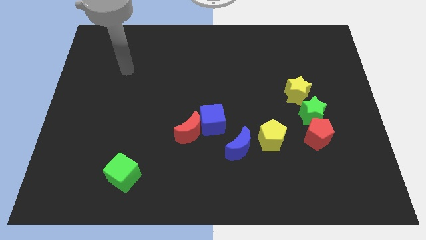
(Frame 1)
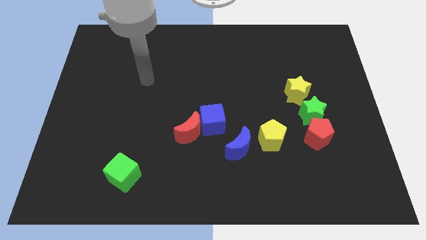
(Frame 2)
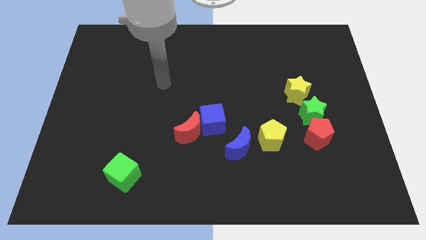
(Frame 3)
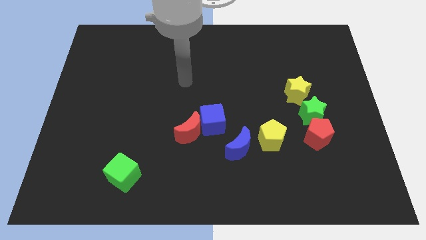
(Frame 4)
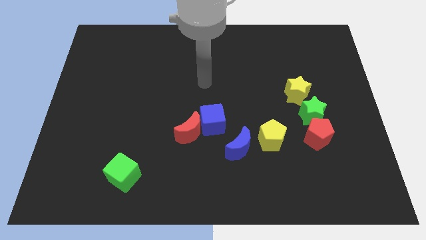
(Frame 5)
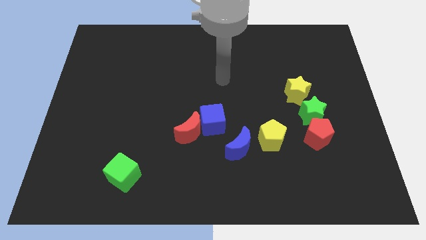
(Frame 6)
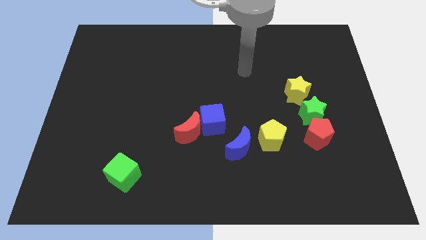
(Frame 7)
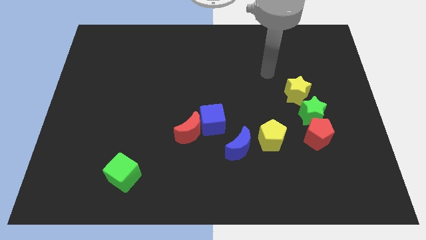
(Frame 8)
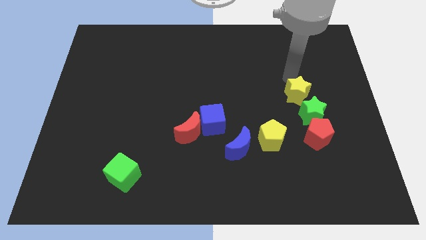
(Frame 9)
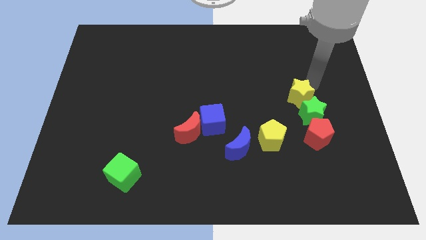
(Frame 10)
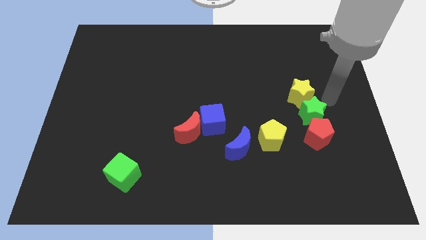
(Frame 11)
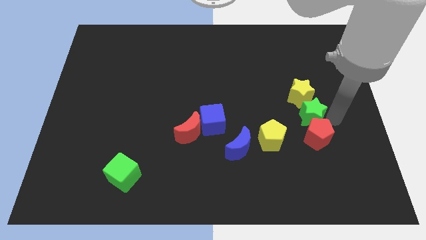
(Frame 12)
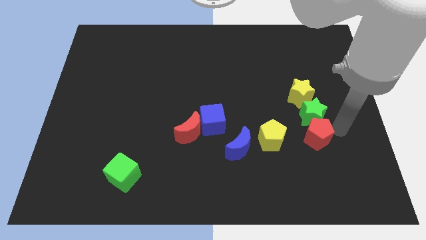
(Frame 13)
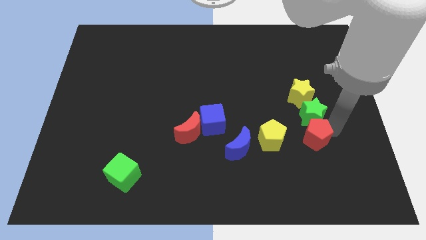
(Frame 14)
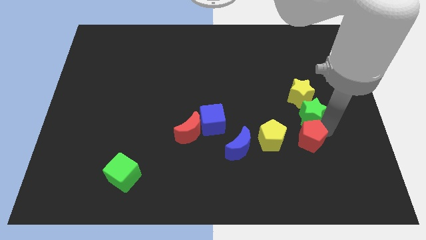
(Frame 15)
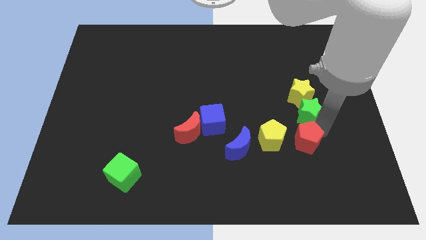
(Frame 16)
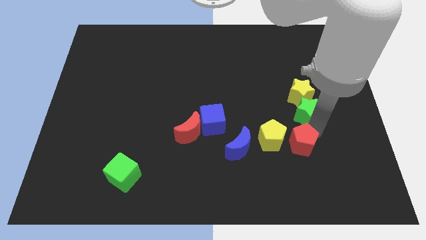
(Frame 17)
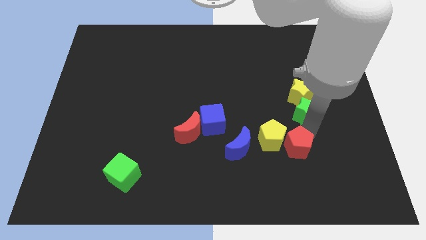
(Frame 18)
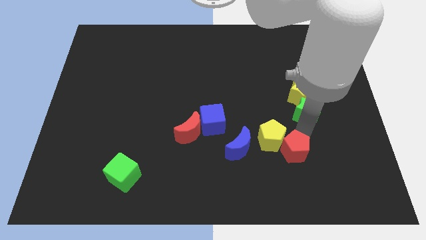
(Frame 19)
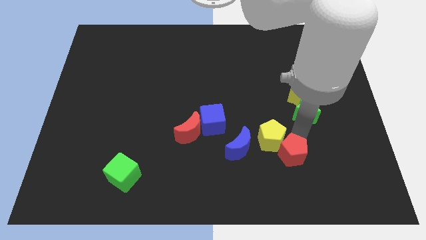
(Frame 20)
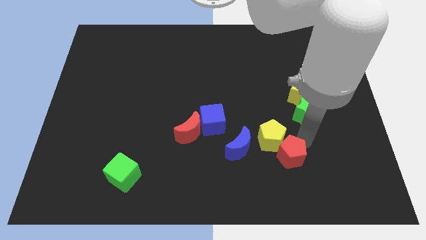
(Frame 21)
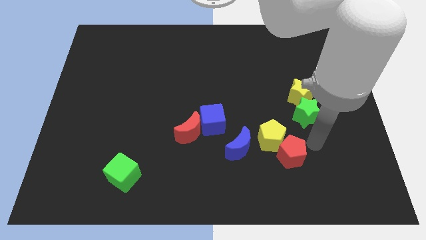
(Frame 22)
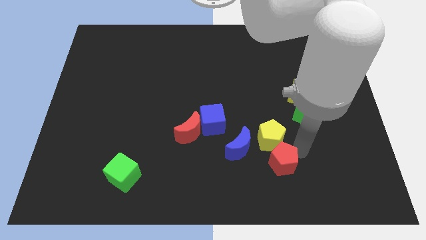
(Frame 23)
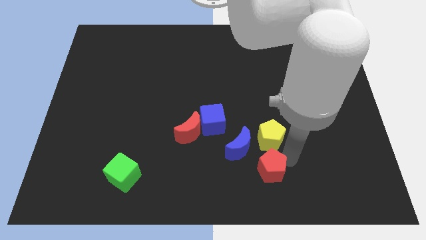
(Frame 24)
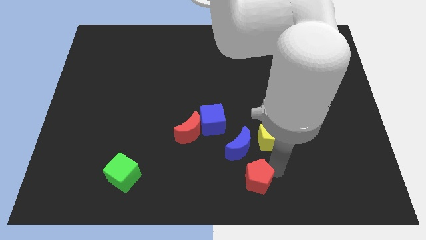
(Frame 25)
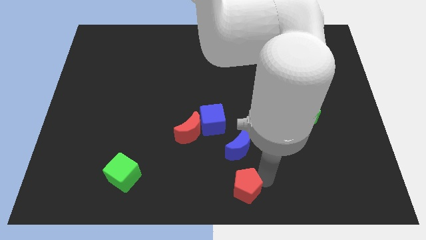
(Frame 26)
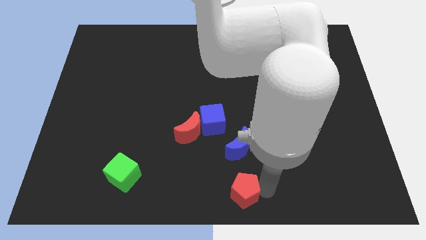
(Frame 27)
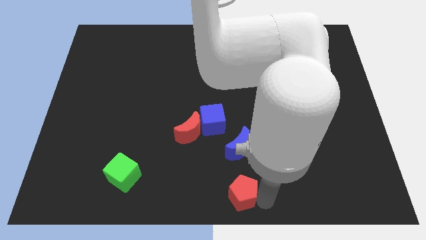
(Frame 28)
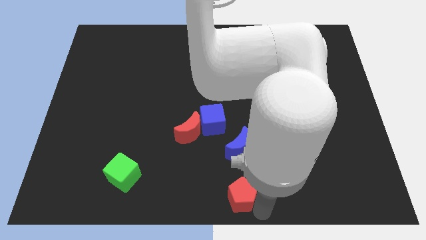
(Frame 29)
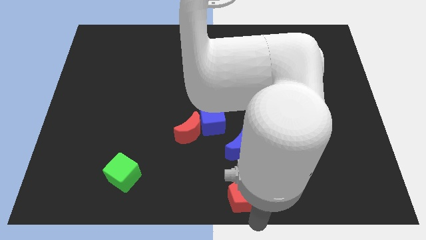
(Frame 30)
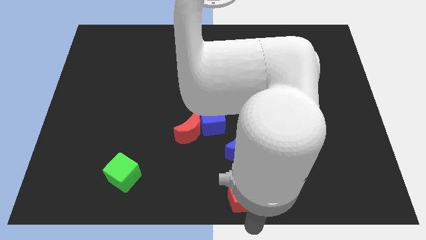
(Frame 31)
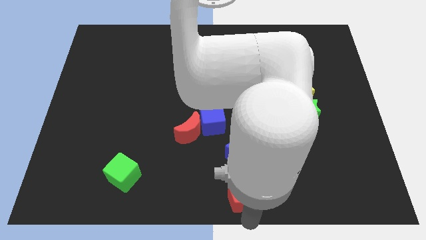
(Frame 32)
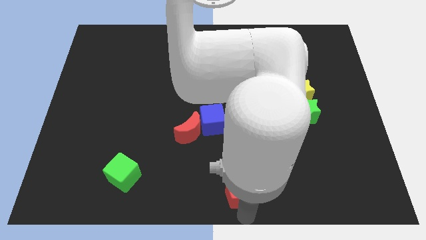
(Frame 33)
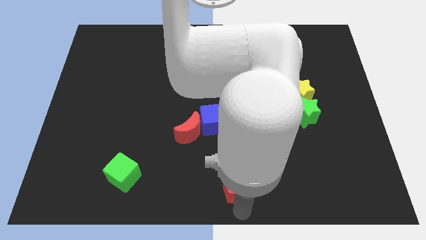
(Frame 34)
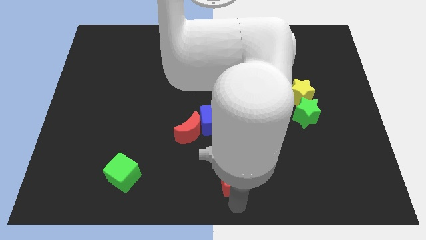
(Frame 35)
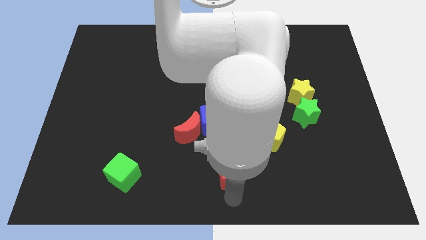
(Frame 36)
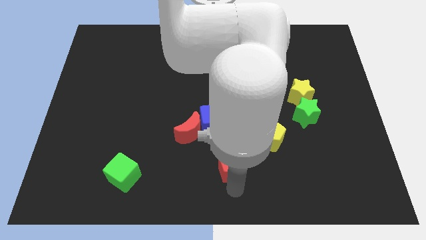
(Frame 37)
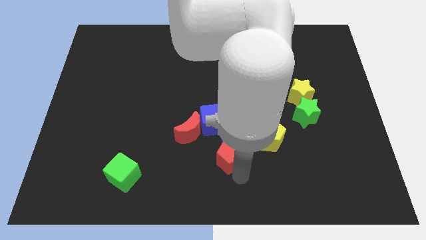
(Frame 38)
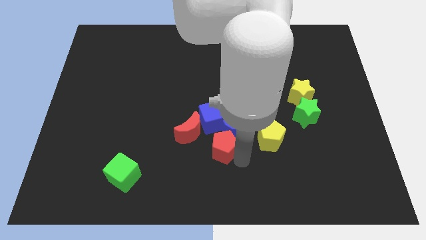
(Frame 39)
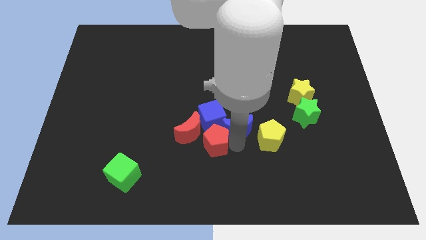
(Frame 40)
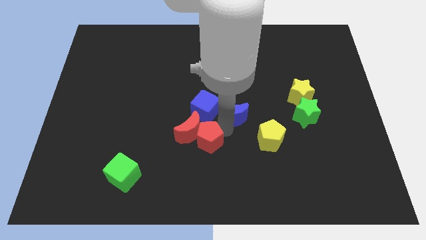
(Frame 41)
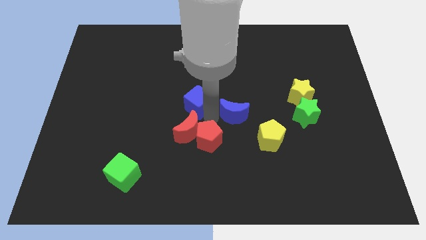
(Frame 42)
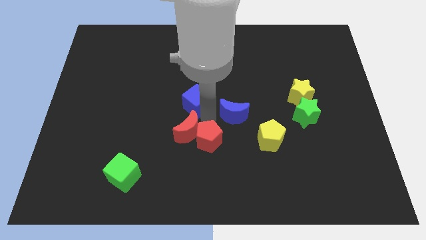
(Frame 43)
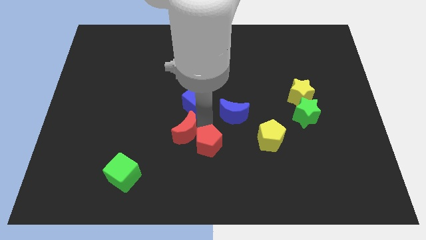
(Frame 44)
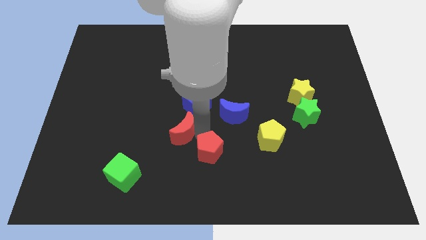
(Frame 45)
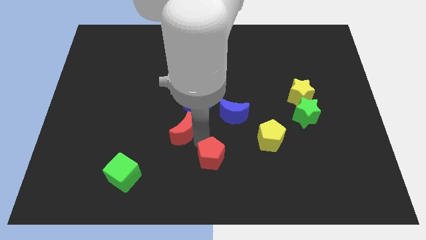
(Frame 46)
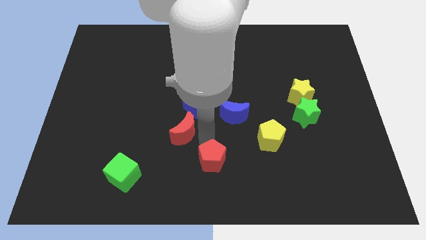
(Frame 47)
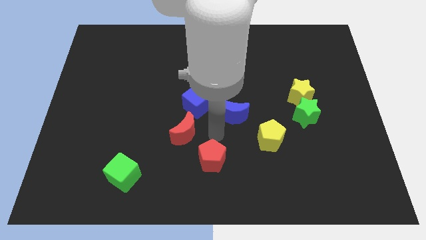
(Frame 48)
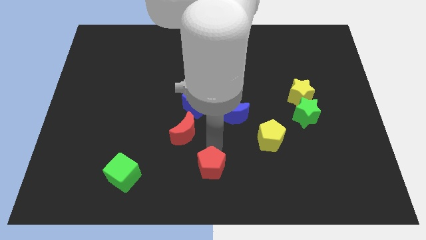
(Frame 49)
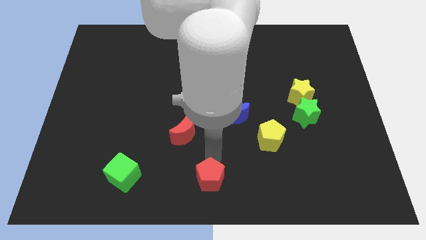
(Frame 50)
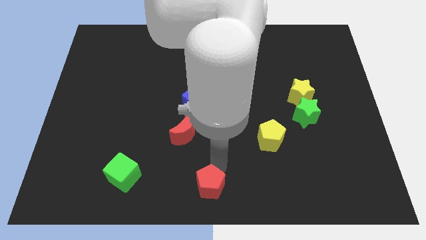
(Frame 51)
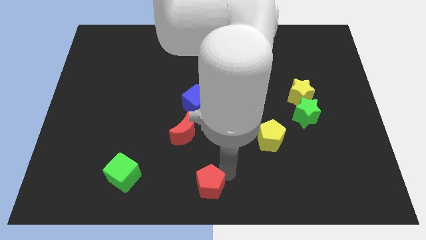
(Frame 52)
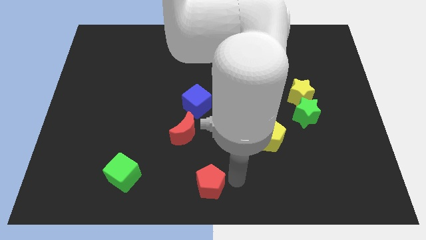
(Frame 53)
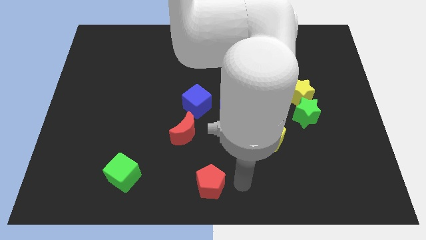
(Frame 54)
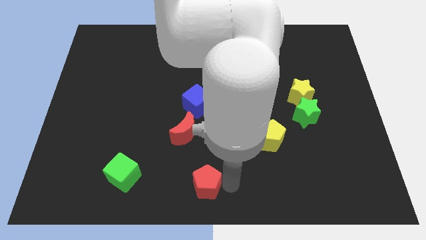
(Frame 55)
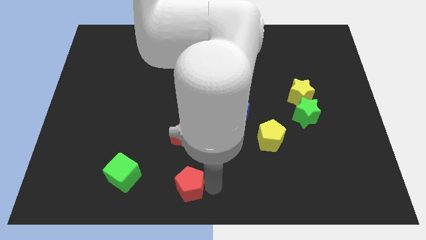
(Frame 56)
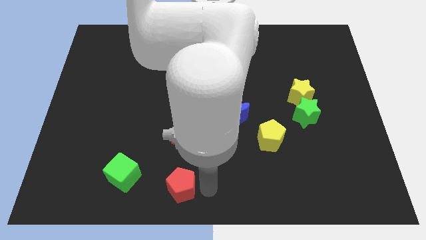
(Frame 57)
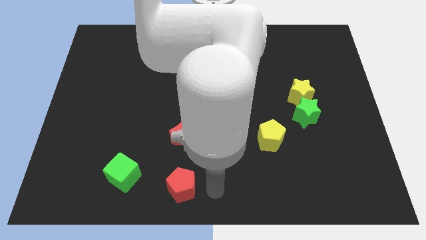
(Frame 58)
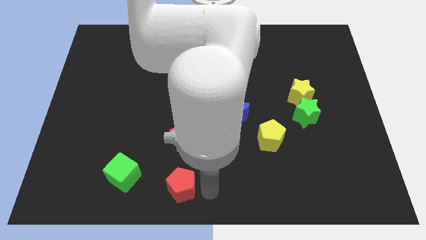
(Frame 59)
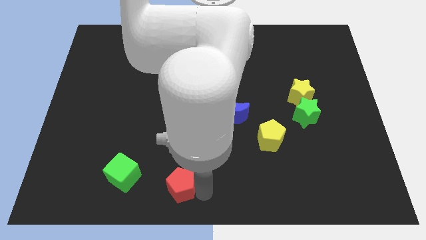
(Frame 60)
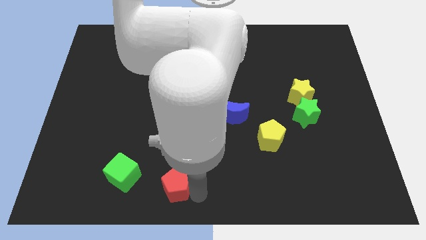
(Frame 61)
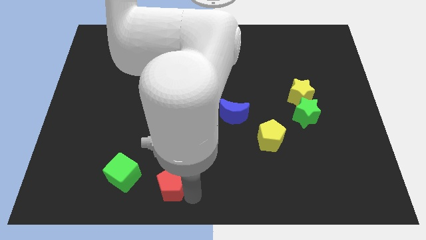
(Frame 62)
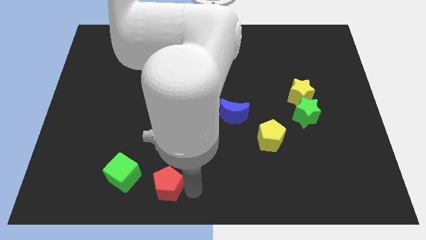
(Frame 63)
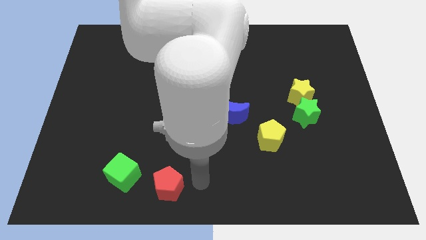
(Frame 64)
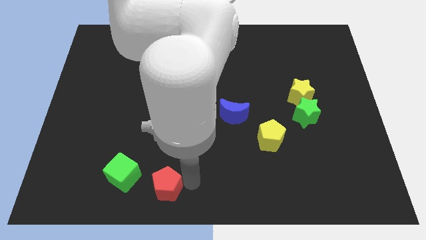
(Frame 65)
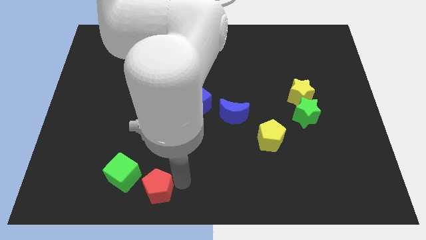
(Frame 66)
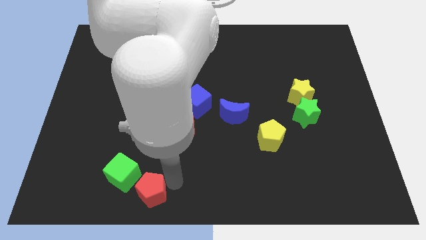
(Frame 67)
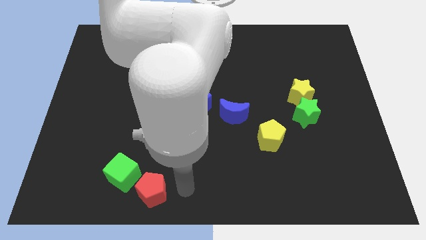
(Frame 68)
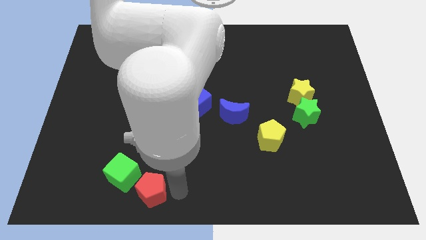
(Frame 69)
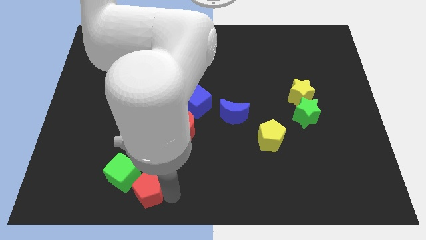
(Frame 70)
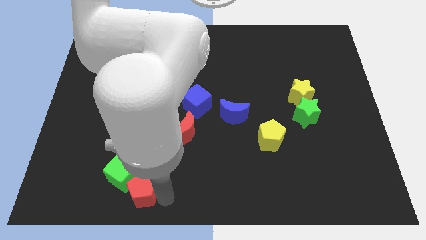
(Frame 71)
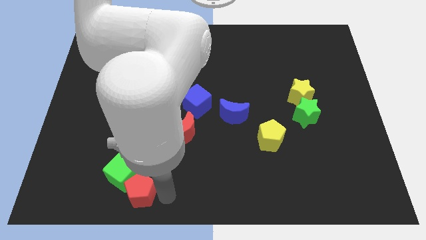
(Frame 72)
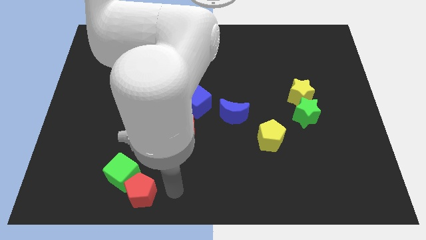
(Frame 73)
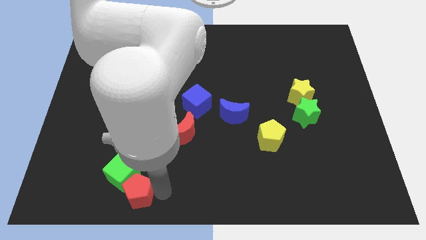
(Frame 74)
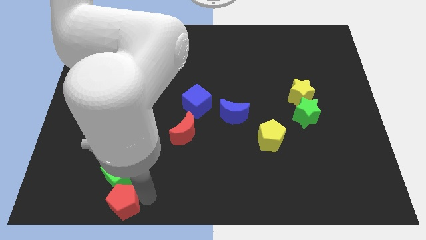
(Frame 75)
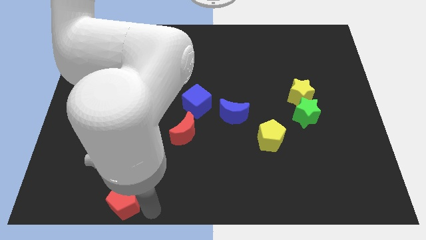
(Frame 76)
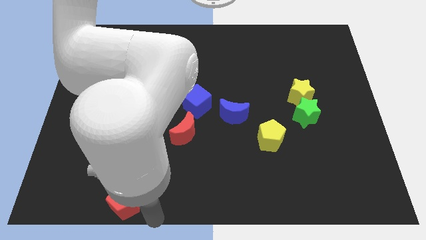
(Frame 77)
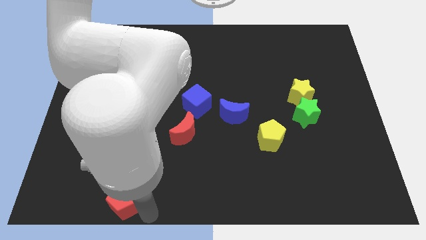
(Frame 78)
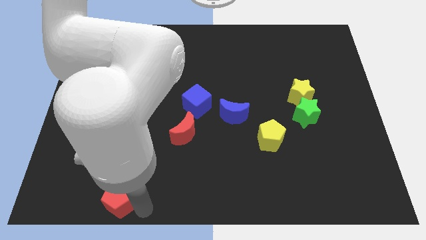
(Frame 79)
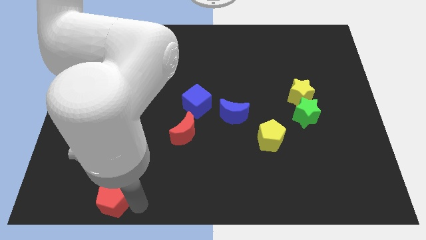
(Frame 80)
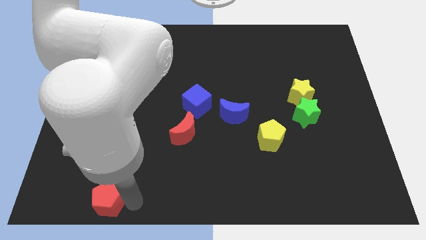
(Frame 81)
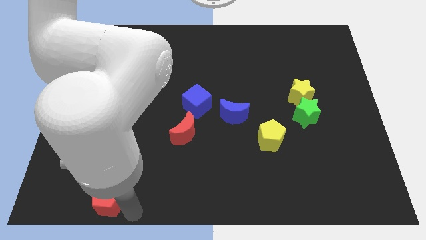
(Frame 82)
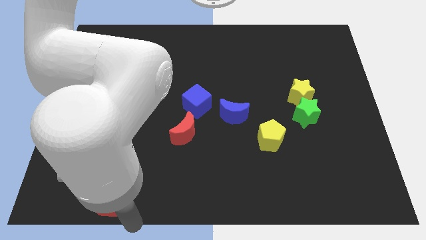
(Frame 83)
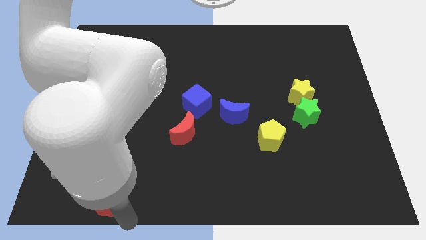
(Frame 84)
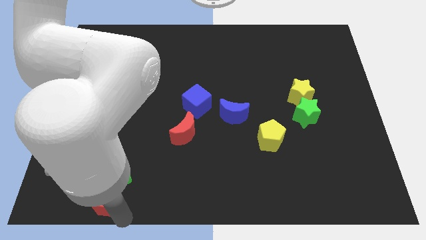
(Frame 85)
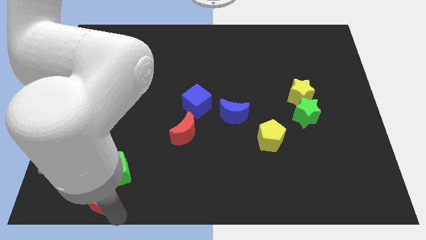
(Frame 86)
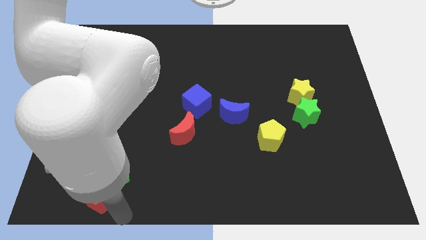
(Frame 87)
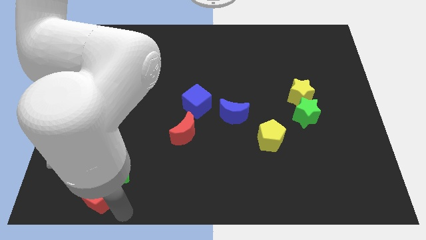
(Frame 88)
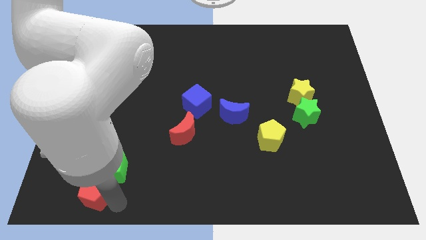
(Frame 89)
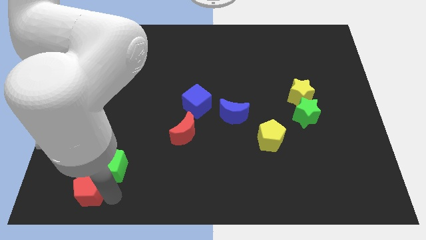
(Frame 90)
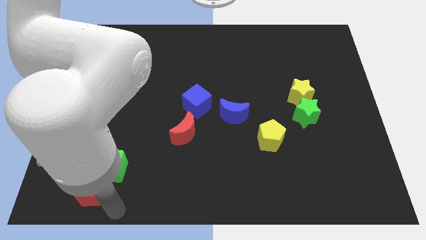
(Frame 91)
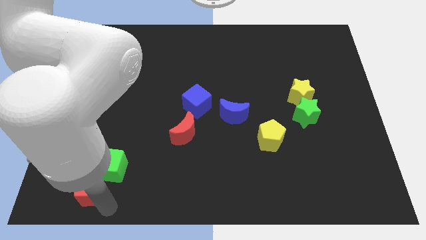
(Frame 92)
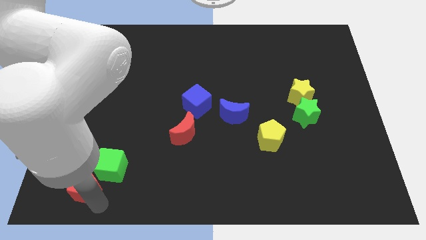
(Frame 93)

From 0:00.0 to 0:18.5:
push the red pentagon just left of the green cube
